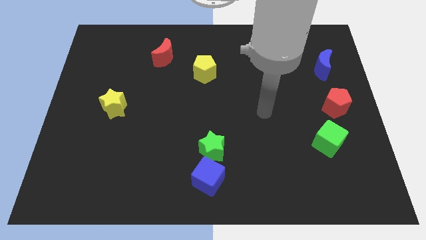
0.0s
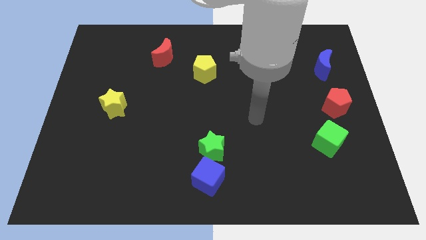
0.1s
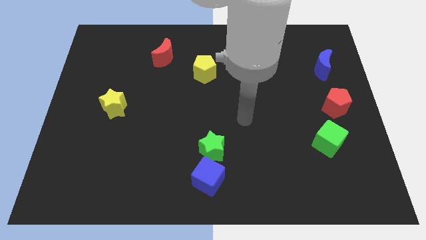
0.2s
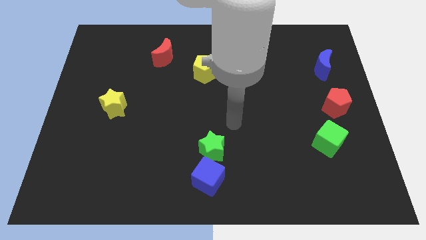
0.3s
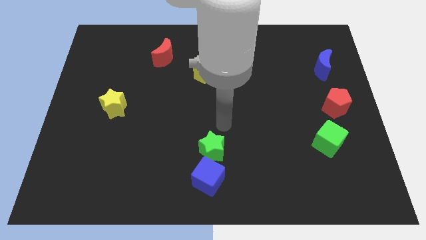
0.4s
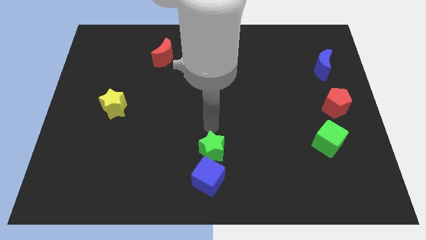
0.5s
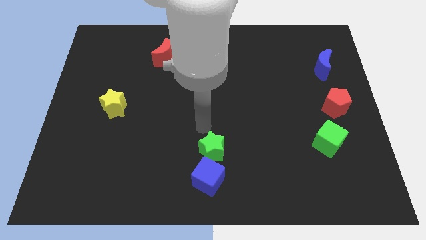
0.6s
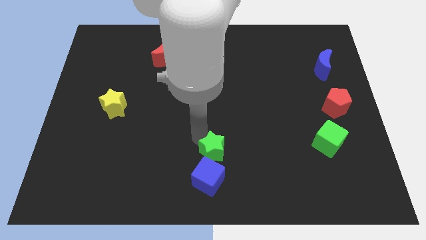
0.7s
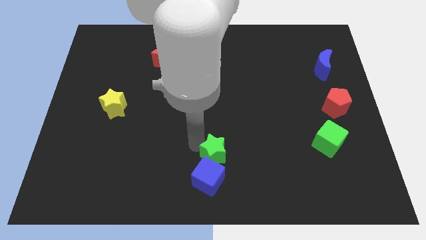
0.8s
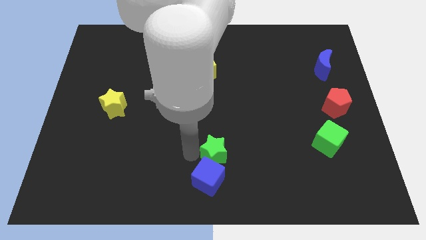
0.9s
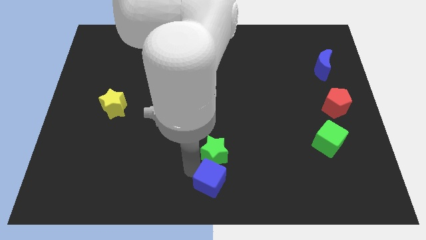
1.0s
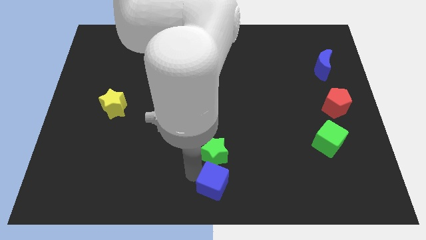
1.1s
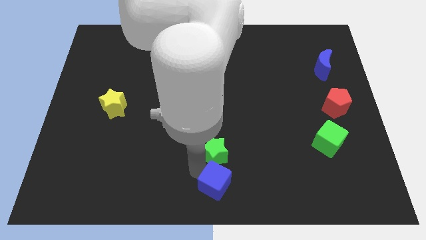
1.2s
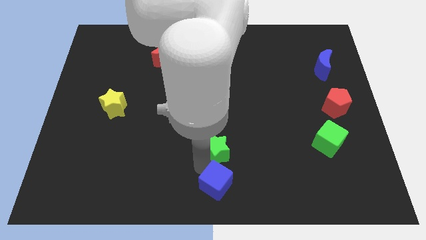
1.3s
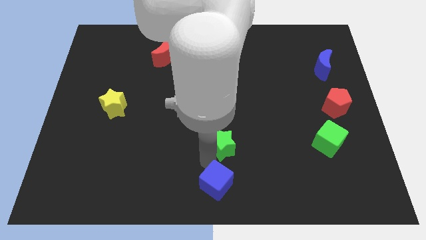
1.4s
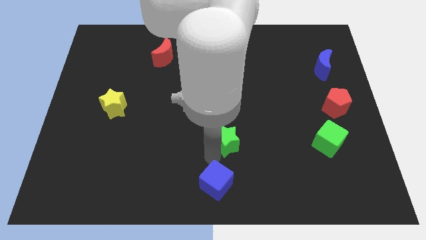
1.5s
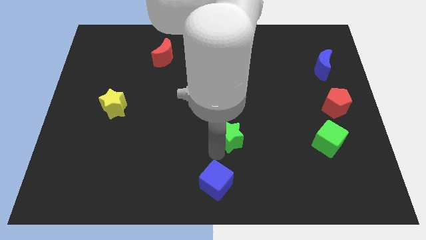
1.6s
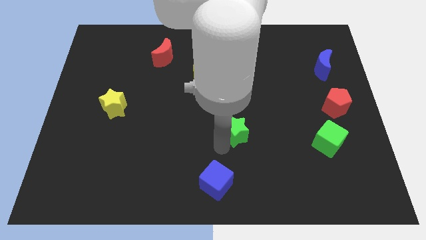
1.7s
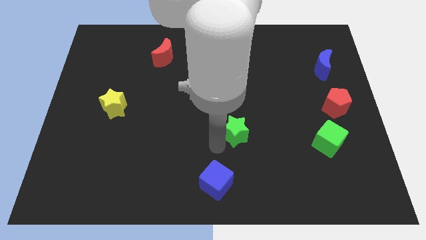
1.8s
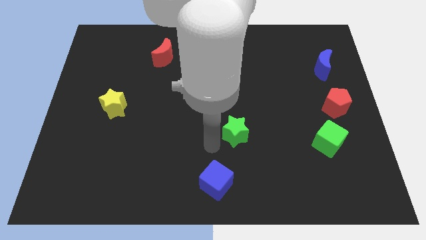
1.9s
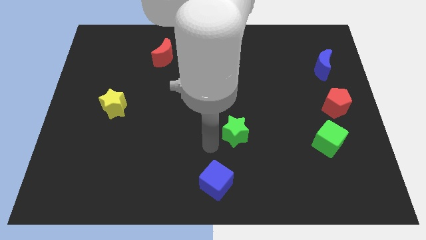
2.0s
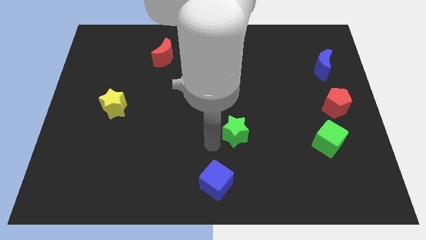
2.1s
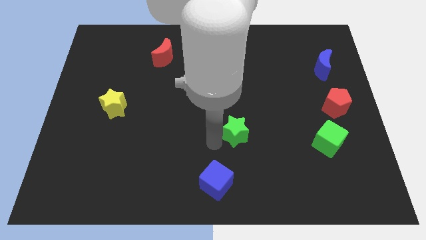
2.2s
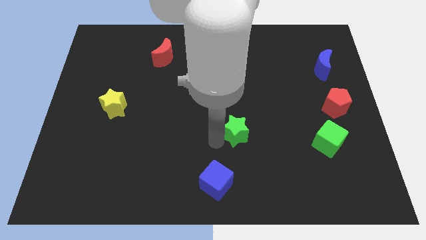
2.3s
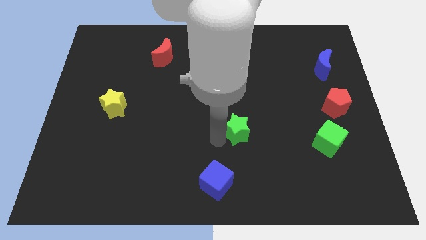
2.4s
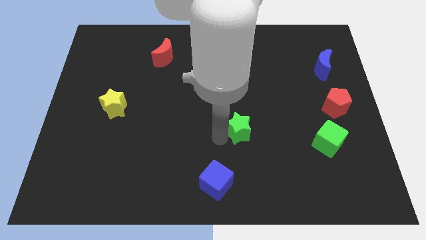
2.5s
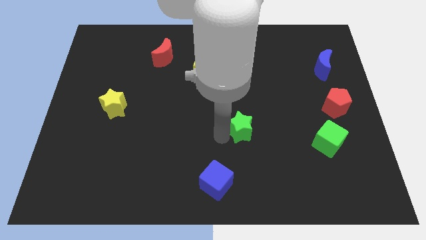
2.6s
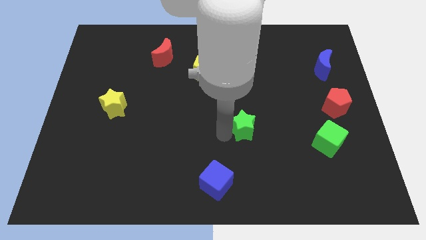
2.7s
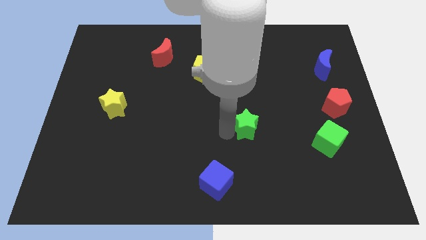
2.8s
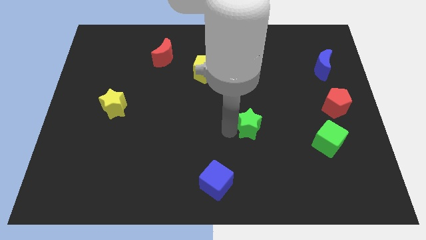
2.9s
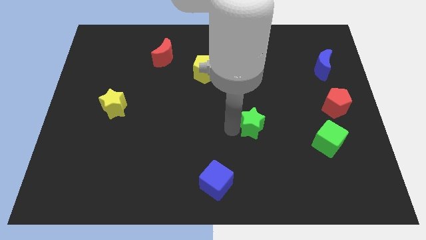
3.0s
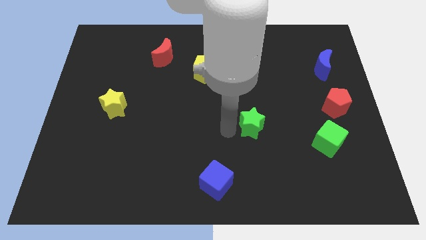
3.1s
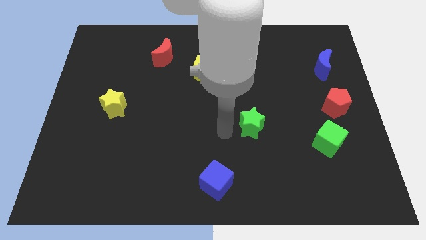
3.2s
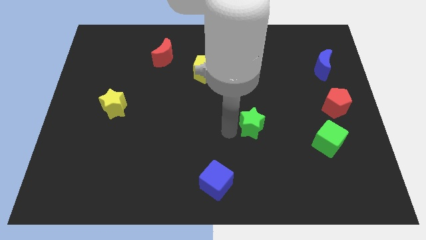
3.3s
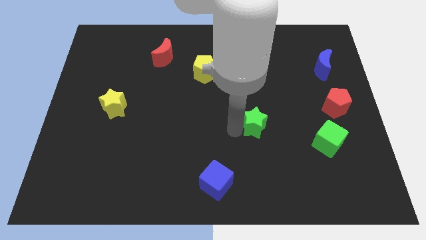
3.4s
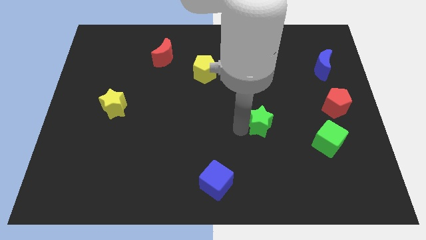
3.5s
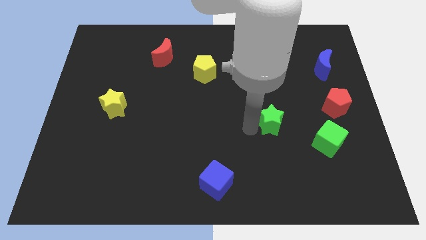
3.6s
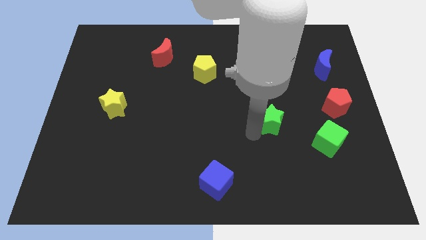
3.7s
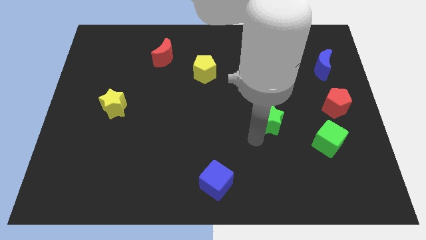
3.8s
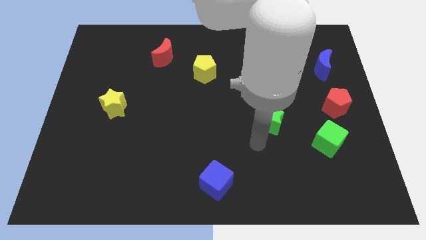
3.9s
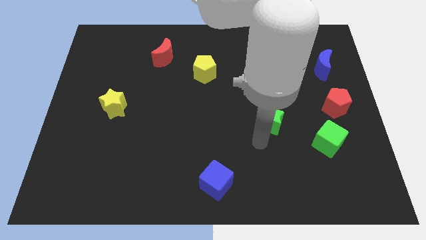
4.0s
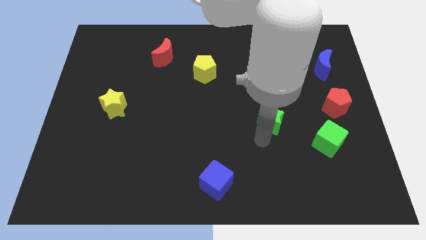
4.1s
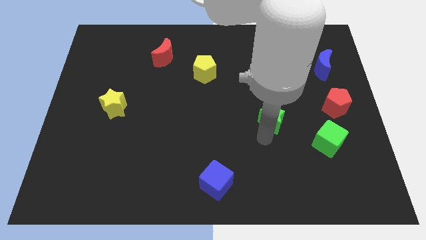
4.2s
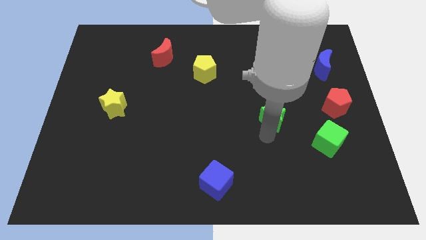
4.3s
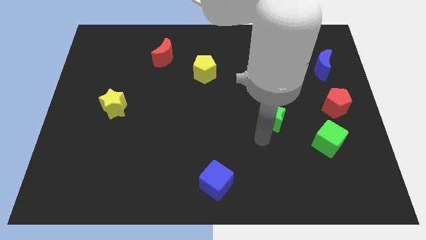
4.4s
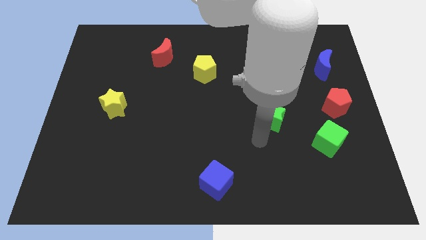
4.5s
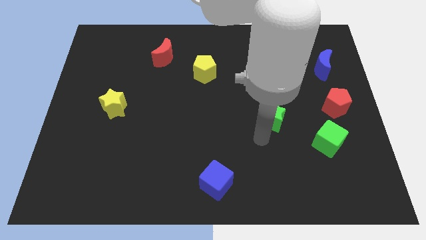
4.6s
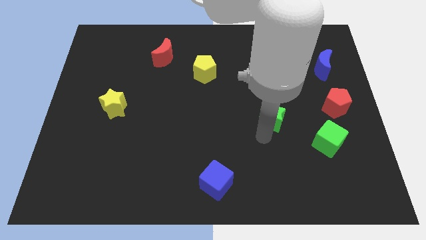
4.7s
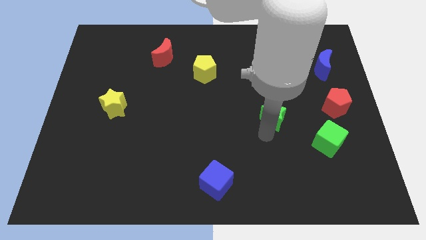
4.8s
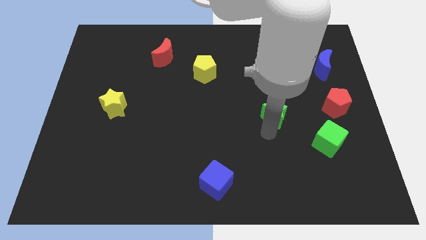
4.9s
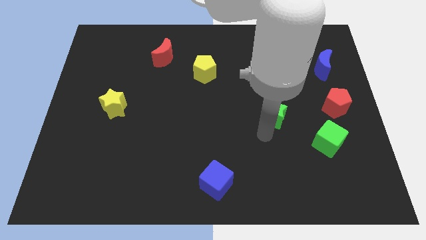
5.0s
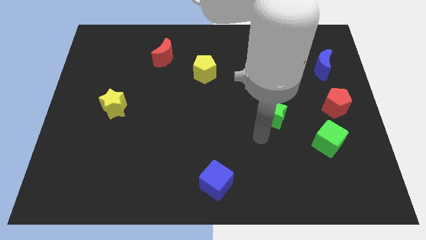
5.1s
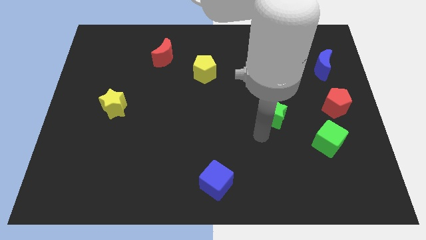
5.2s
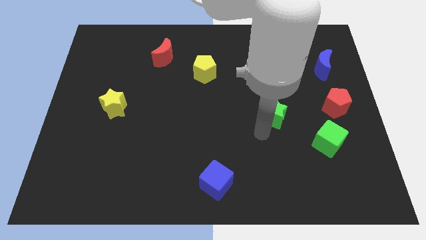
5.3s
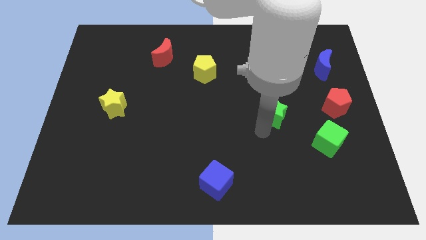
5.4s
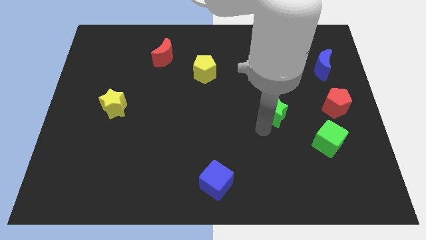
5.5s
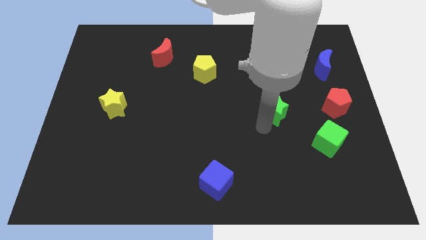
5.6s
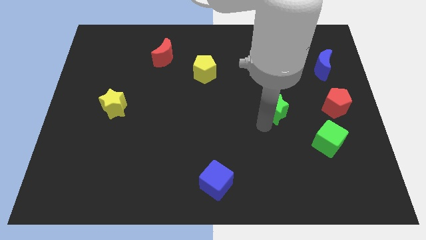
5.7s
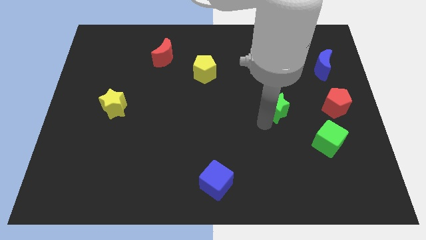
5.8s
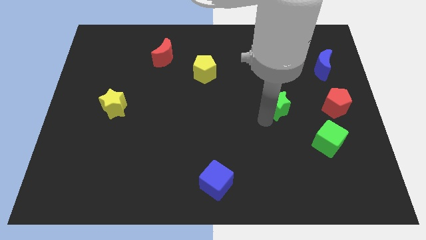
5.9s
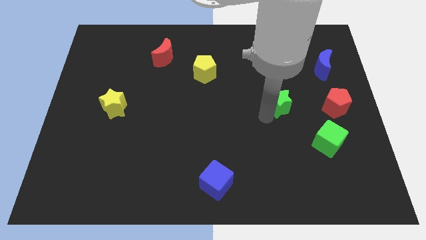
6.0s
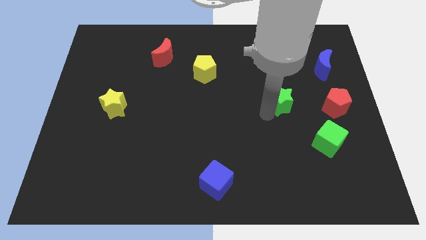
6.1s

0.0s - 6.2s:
move the green star diagonally upwards and right

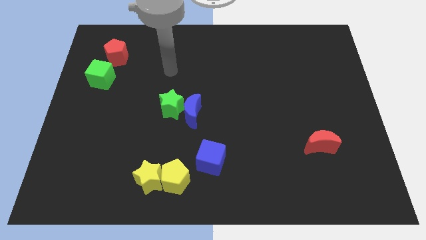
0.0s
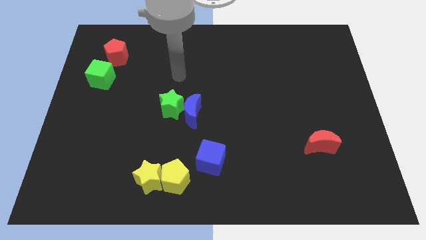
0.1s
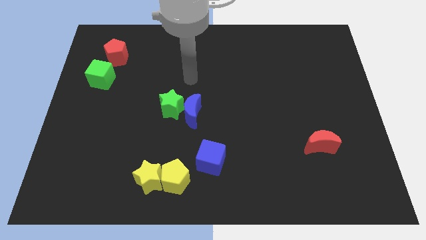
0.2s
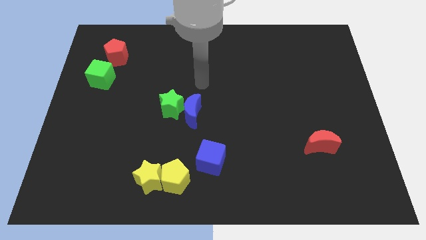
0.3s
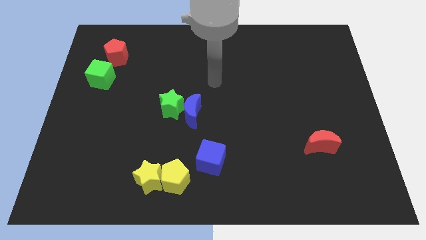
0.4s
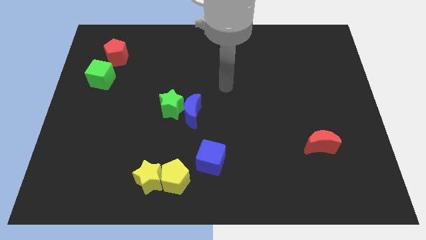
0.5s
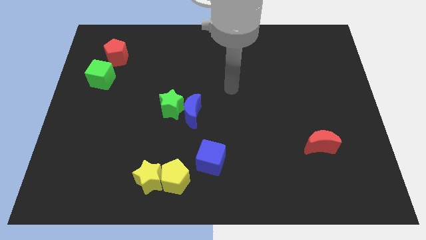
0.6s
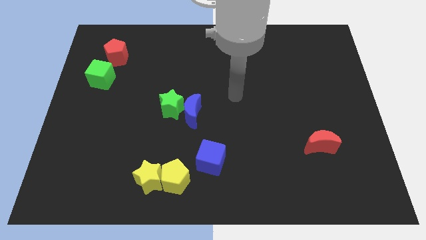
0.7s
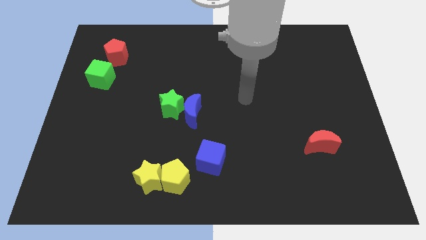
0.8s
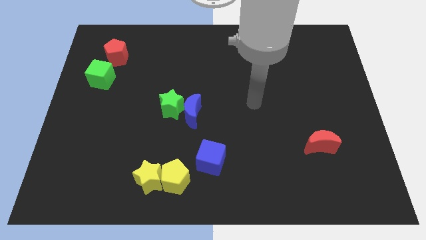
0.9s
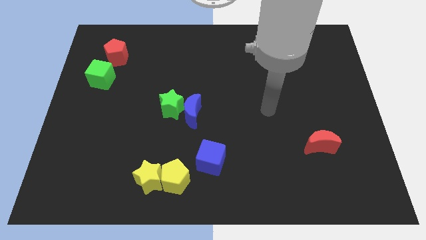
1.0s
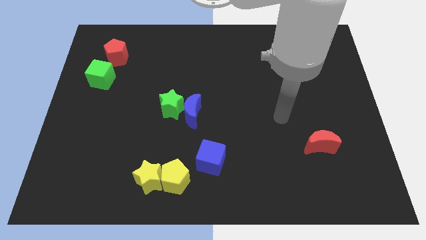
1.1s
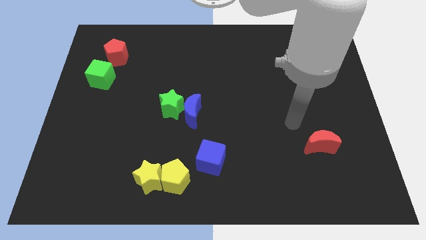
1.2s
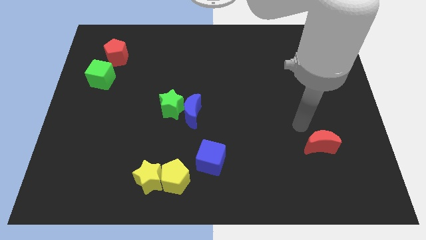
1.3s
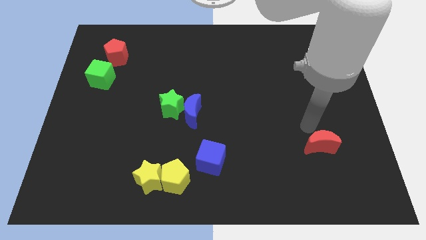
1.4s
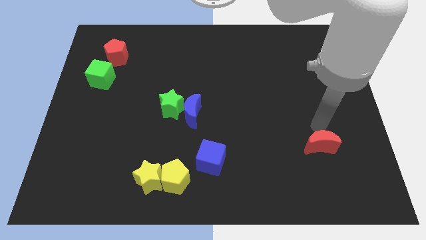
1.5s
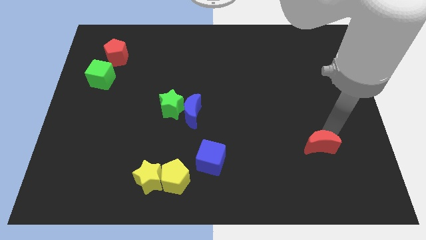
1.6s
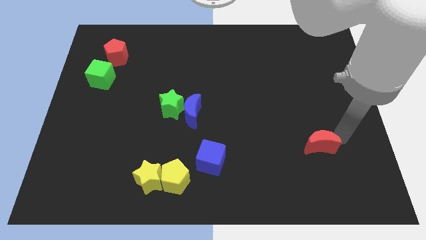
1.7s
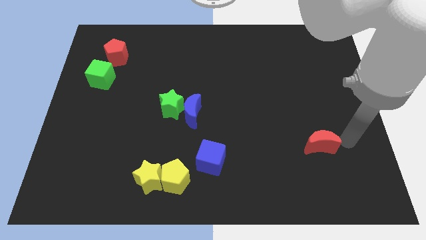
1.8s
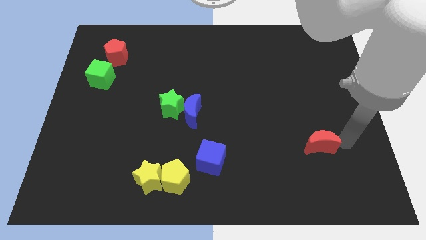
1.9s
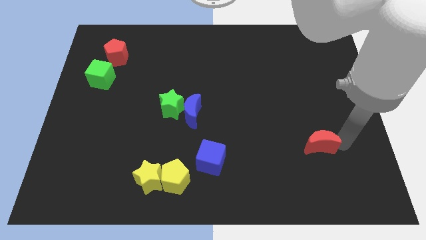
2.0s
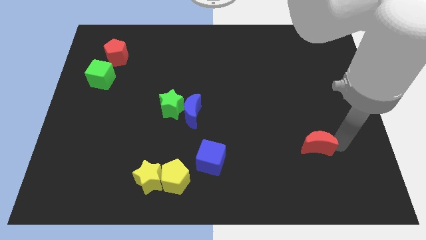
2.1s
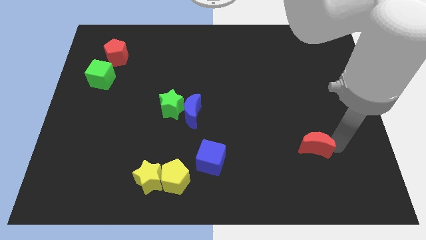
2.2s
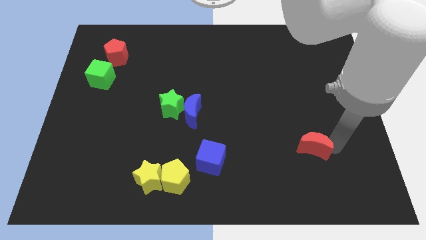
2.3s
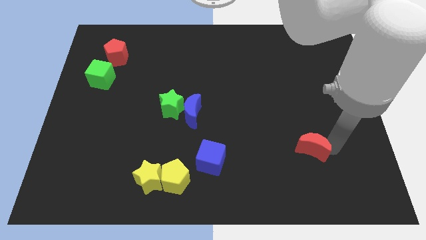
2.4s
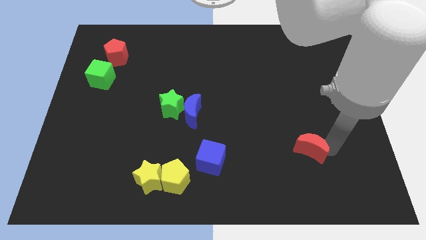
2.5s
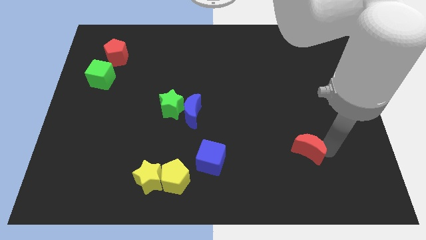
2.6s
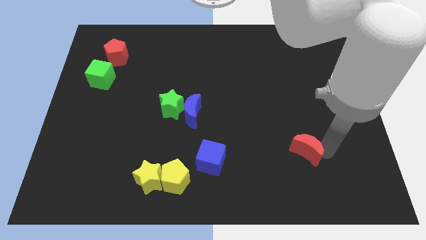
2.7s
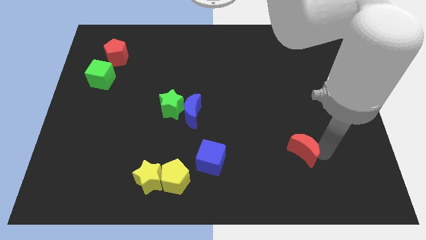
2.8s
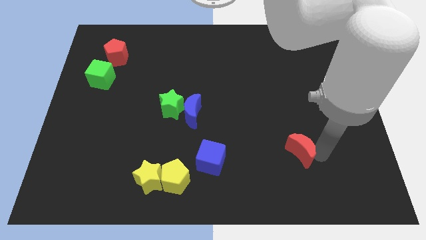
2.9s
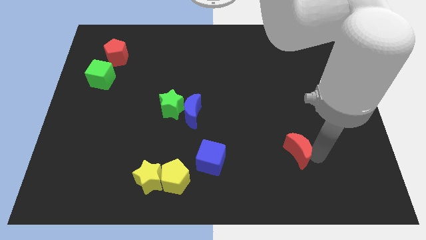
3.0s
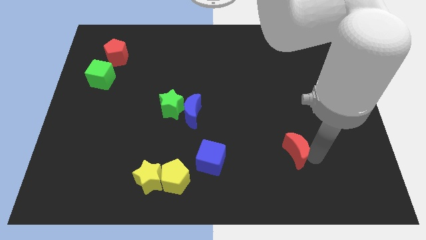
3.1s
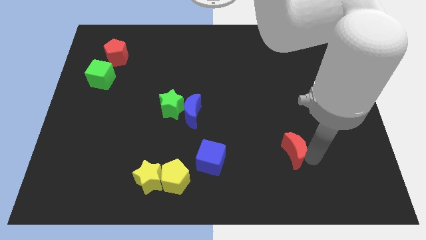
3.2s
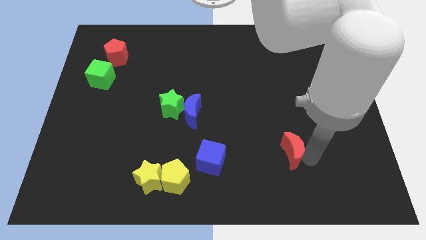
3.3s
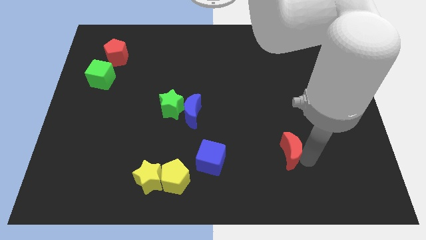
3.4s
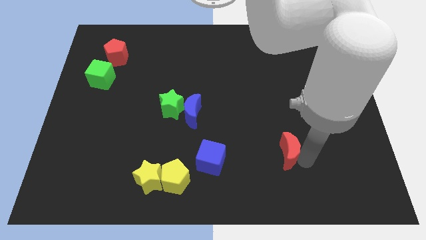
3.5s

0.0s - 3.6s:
push the red moon slightly to the left
